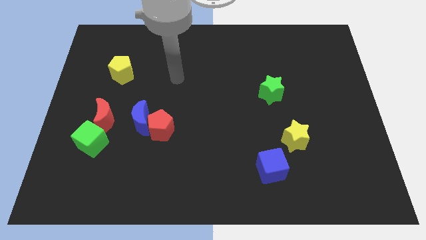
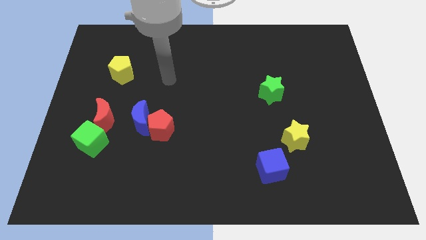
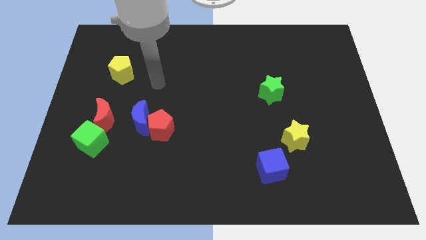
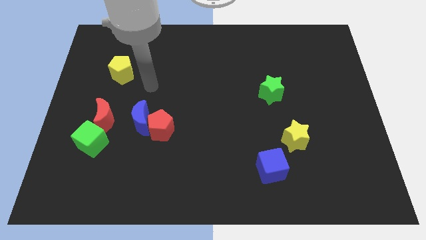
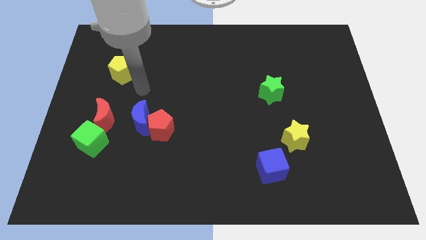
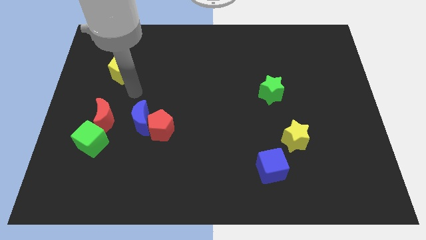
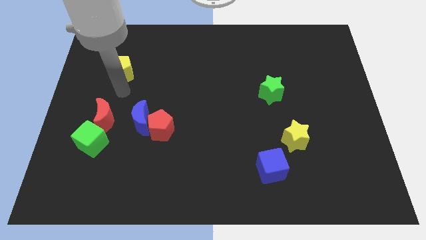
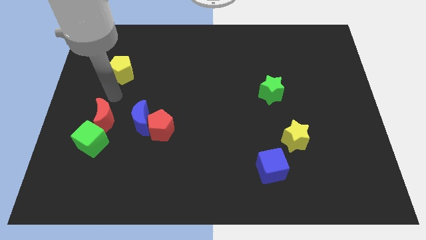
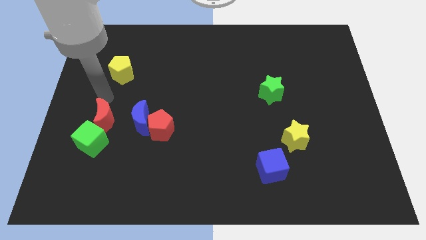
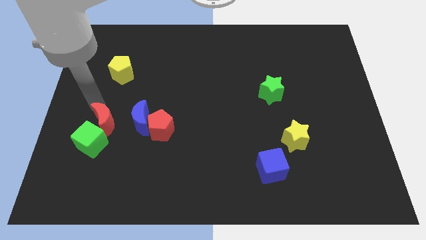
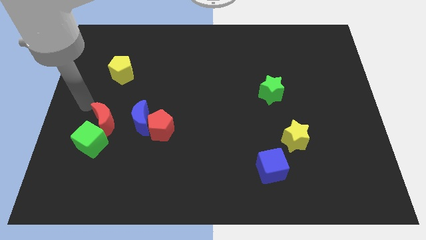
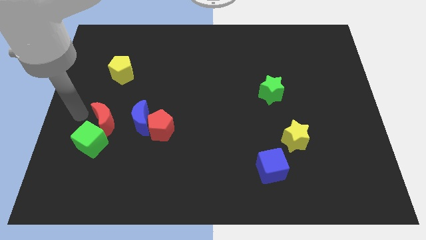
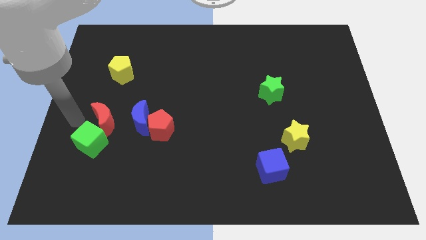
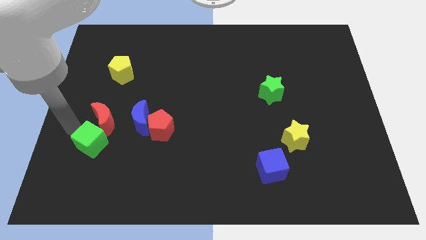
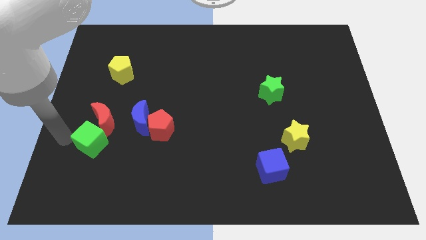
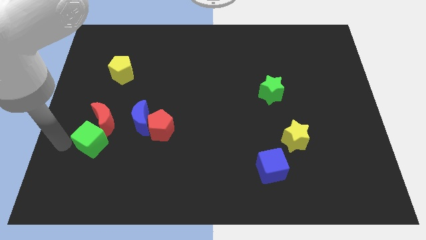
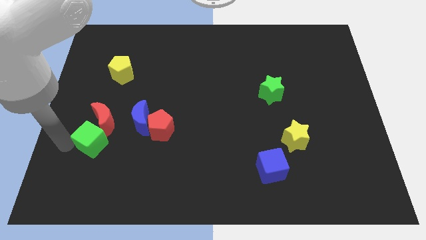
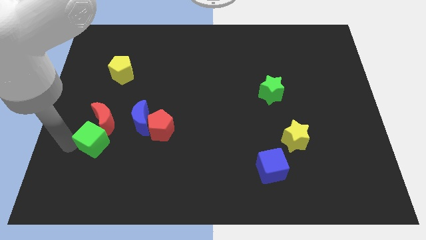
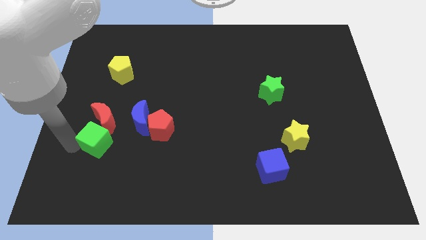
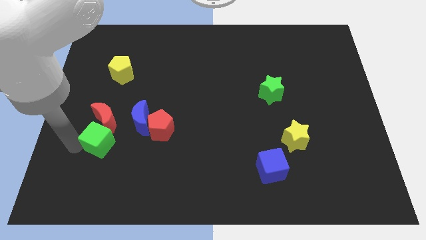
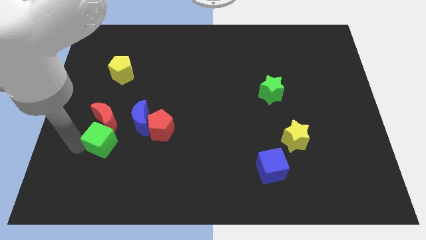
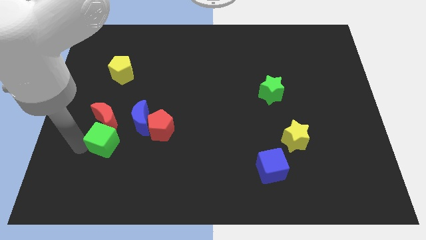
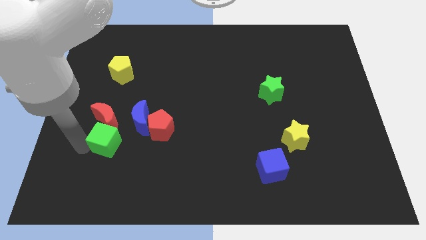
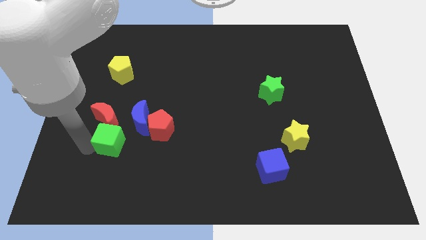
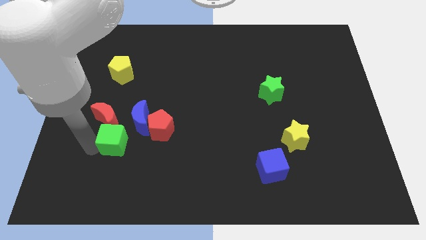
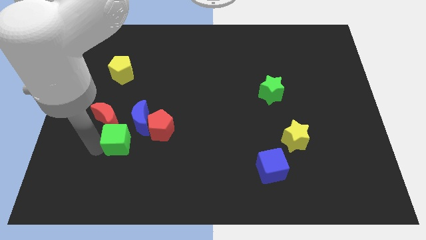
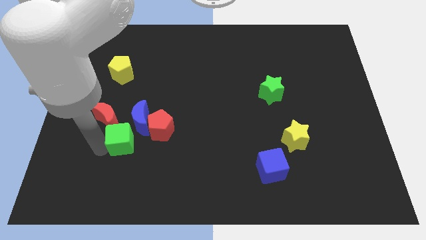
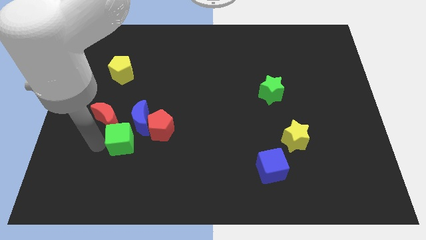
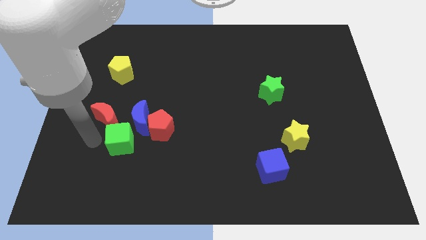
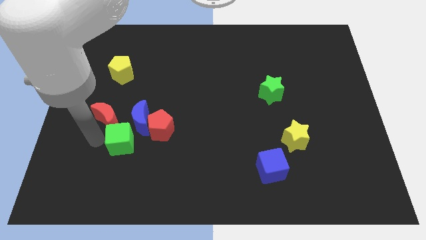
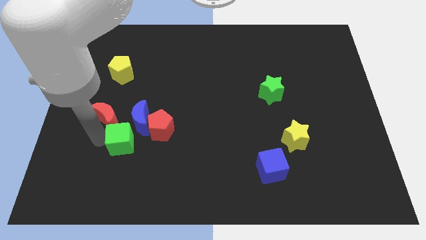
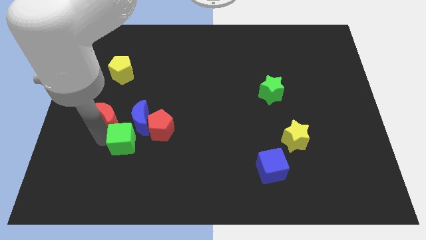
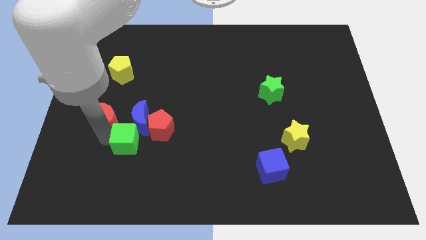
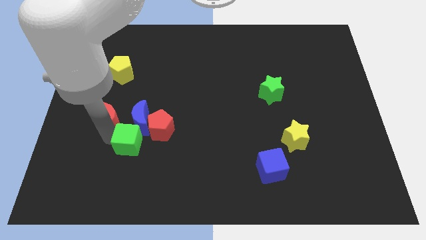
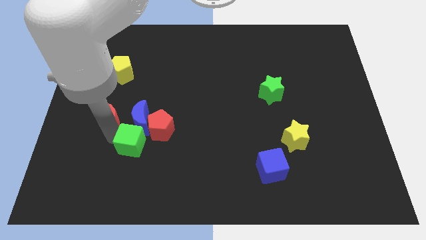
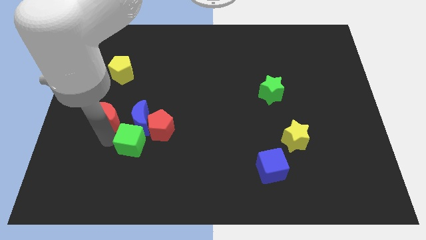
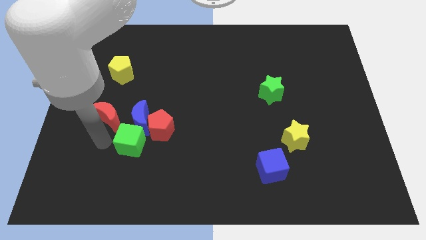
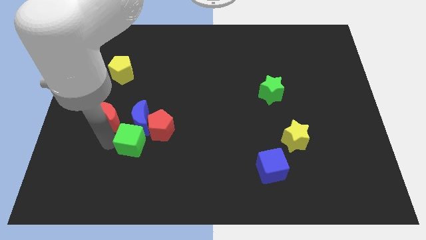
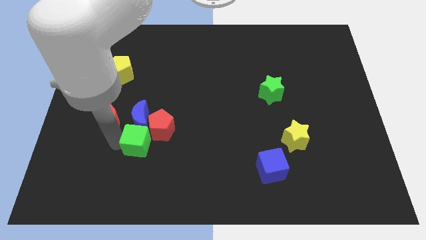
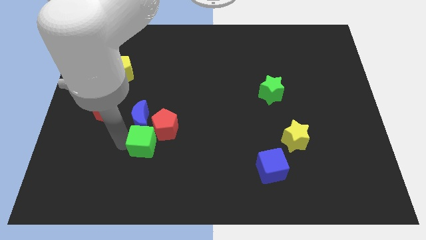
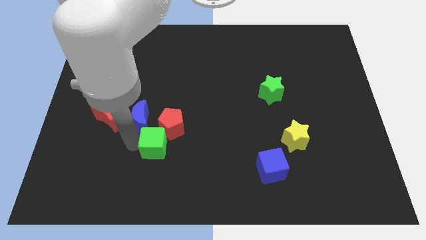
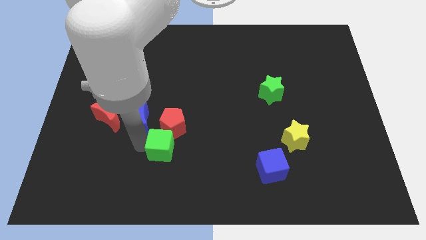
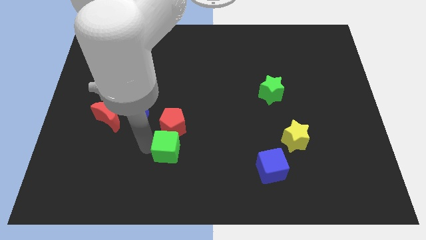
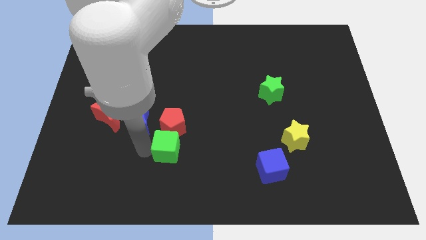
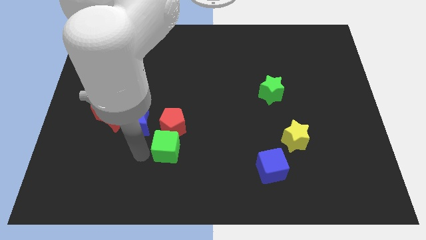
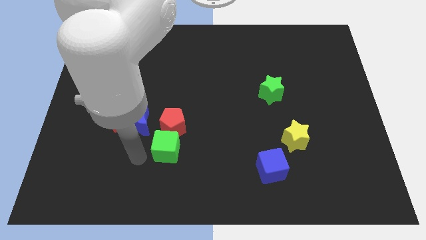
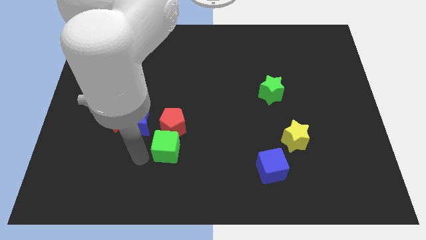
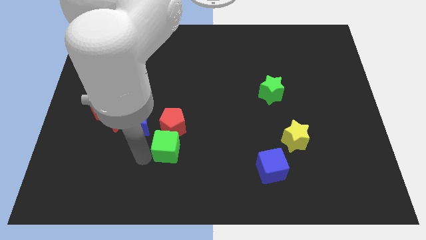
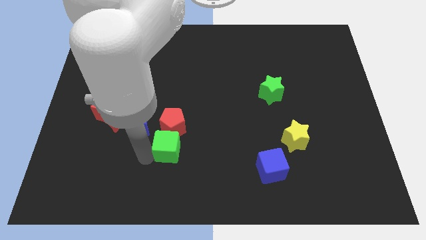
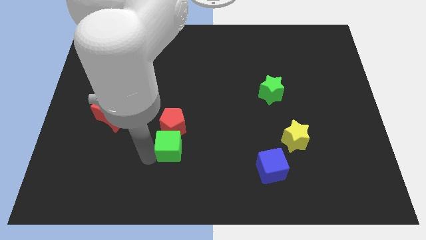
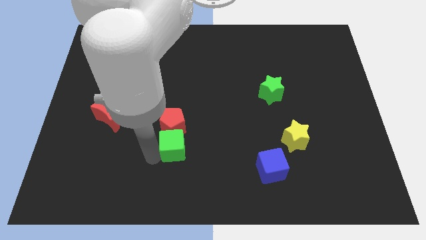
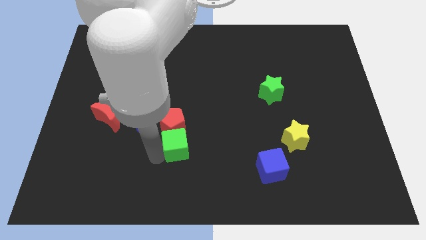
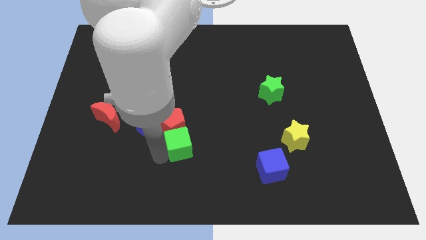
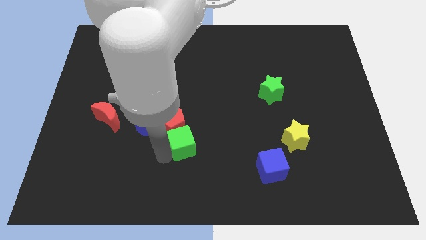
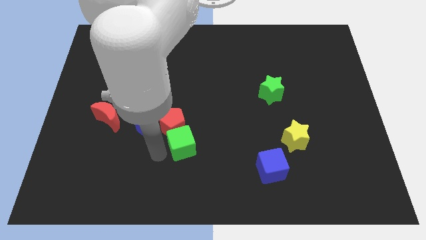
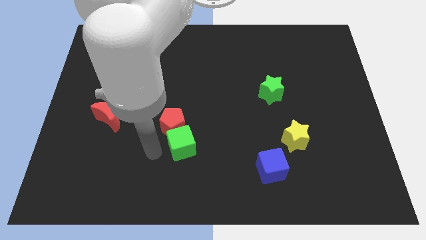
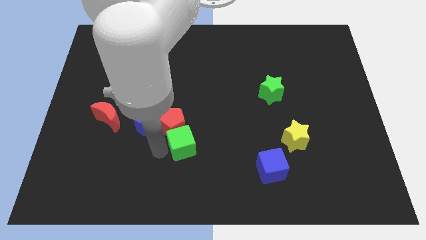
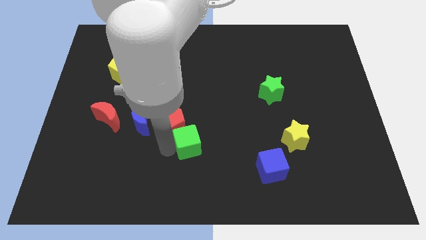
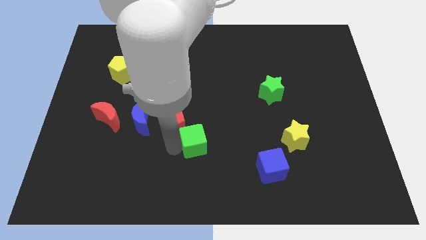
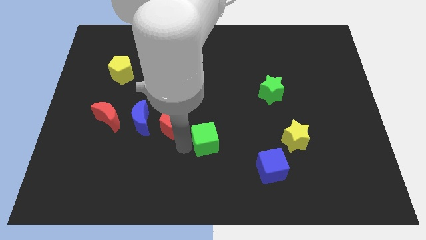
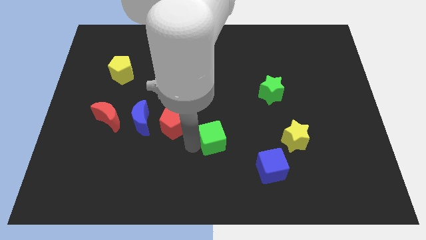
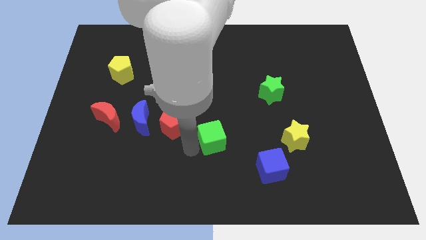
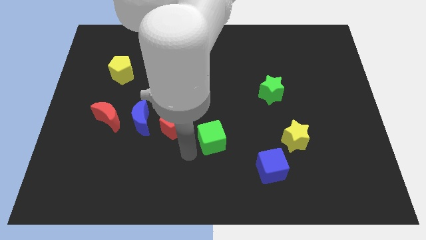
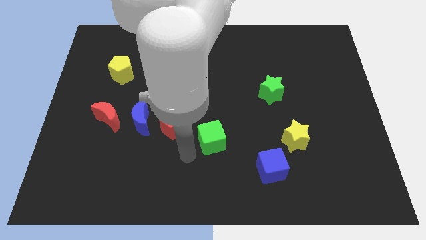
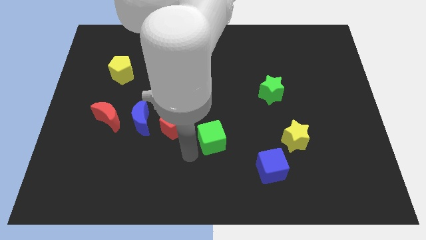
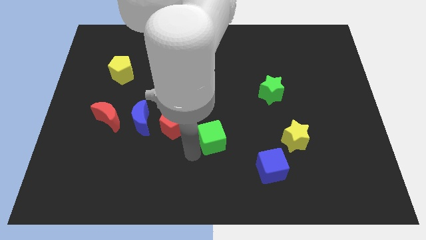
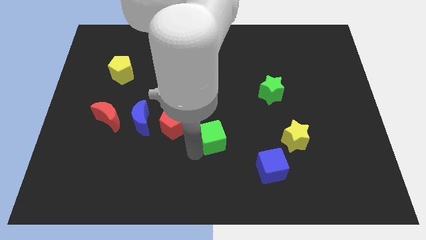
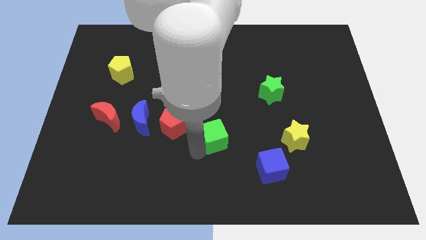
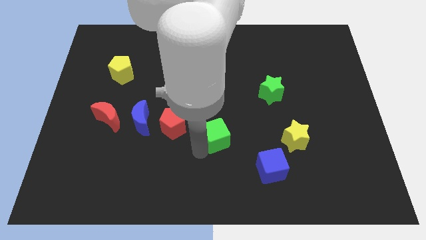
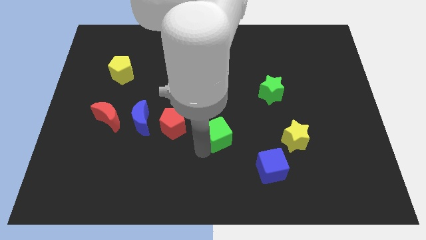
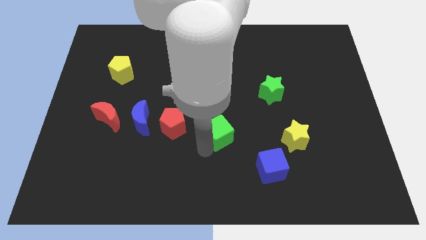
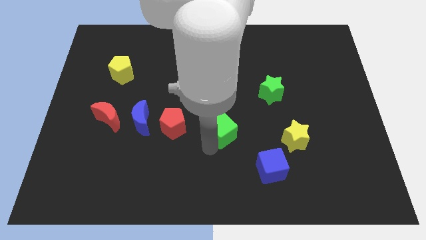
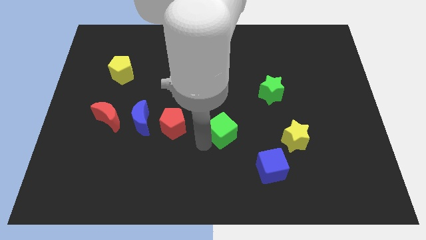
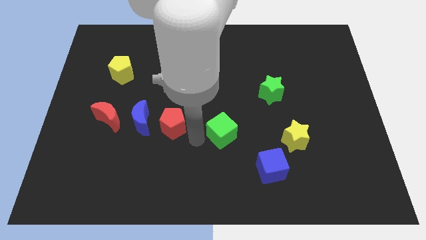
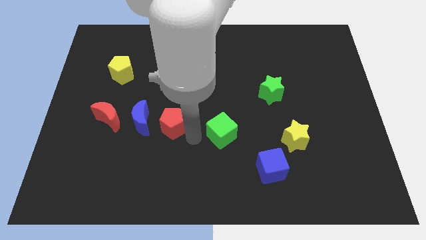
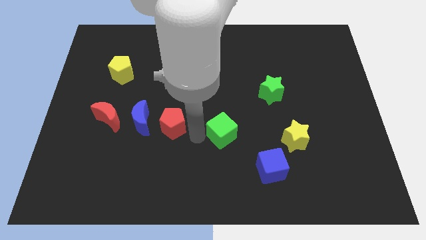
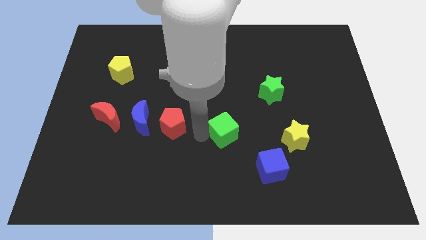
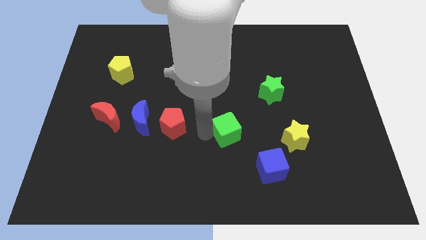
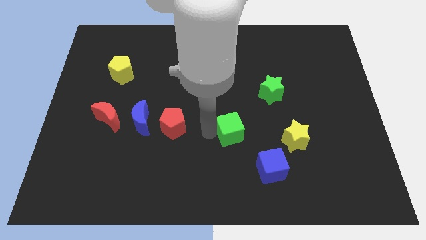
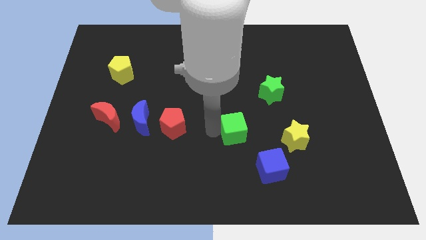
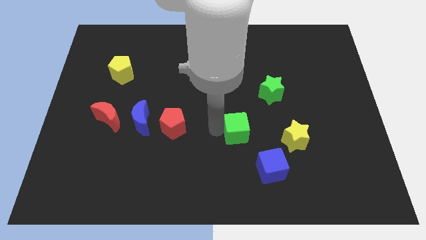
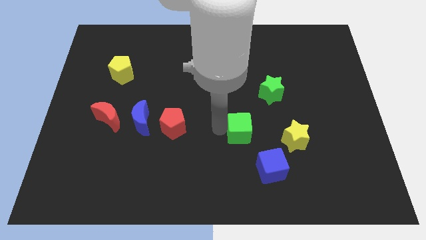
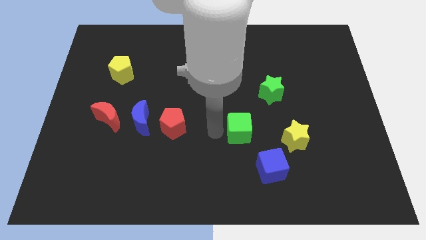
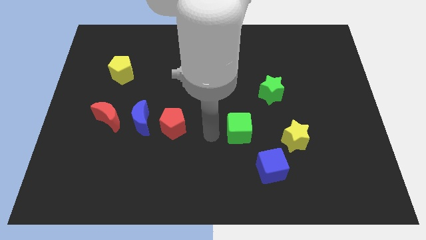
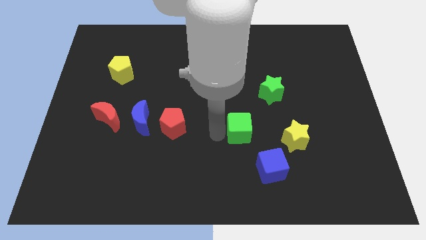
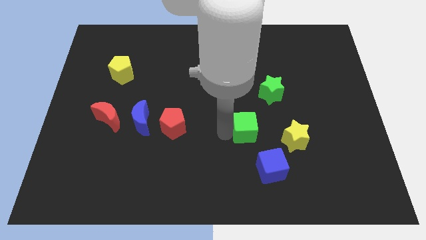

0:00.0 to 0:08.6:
put the green cube to the top side of the blue cube
